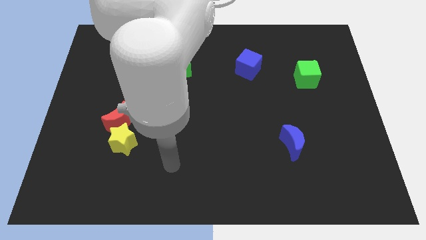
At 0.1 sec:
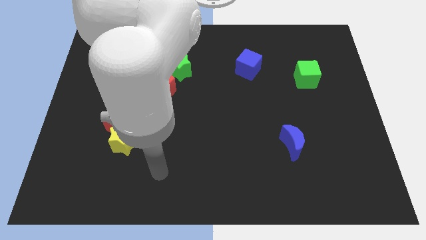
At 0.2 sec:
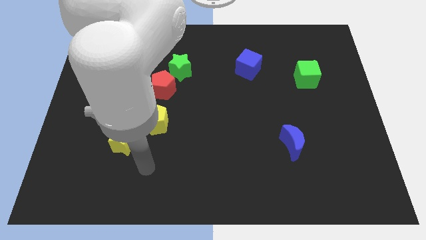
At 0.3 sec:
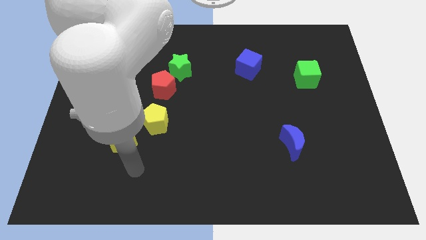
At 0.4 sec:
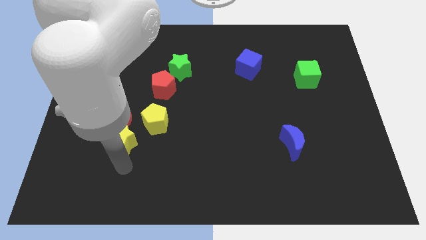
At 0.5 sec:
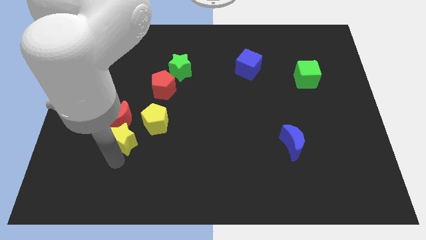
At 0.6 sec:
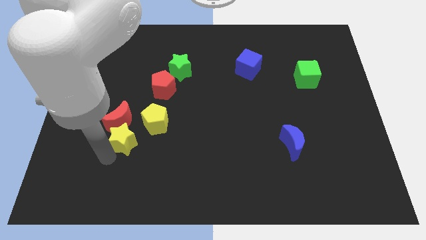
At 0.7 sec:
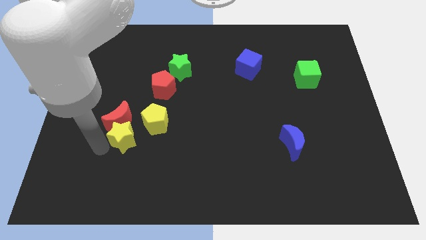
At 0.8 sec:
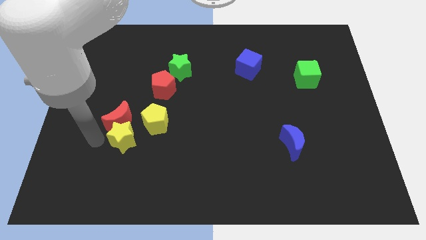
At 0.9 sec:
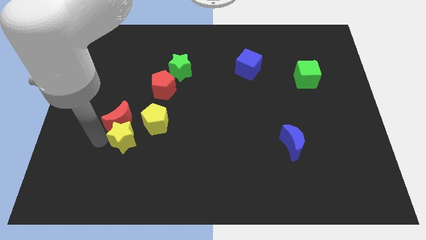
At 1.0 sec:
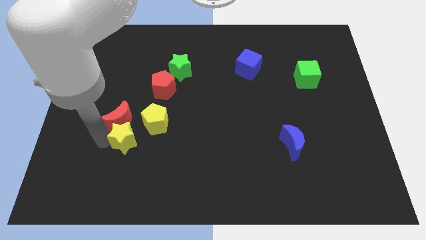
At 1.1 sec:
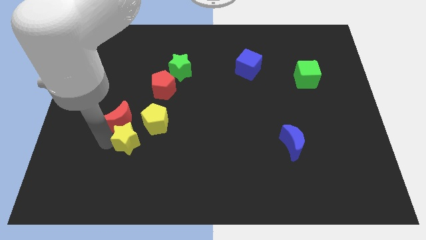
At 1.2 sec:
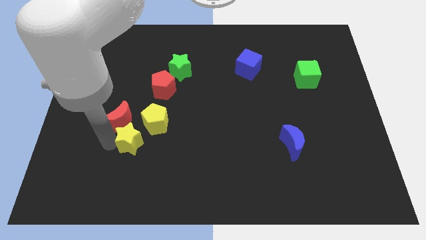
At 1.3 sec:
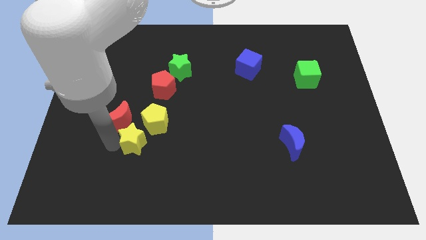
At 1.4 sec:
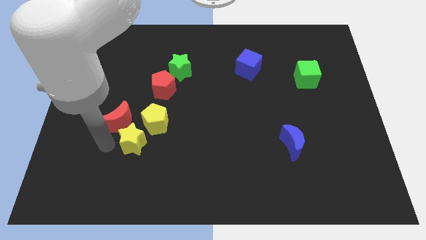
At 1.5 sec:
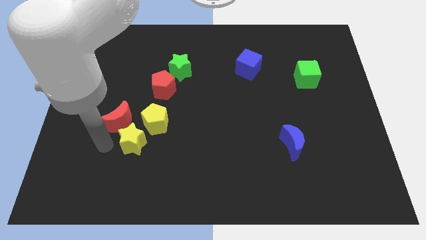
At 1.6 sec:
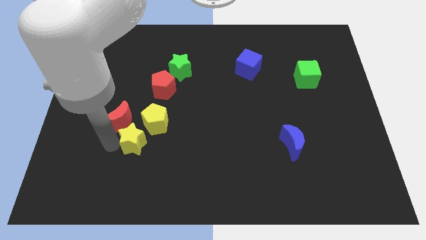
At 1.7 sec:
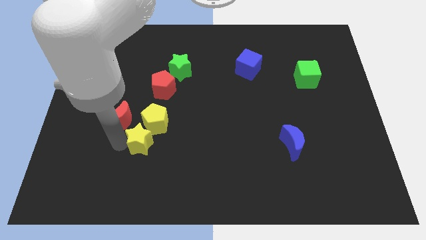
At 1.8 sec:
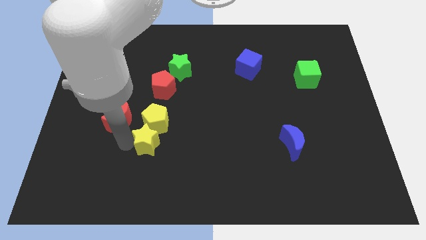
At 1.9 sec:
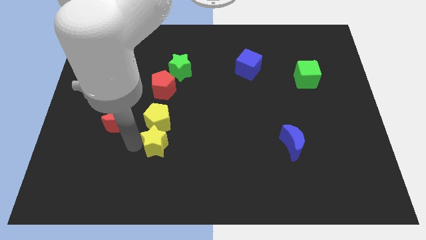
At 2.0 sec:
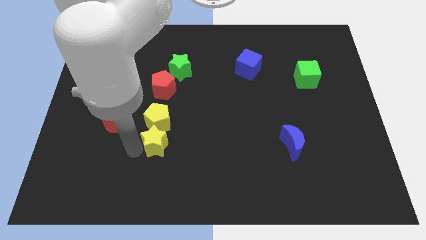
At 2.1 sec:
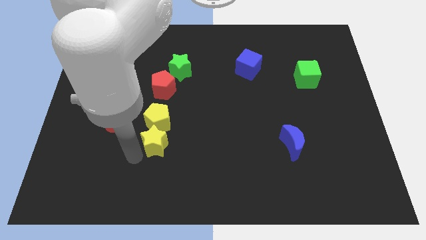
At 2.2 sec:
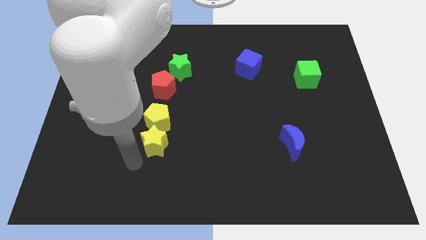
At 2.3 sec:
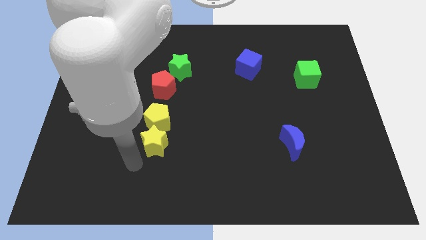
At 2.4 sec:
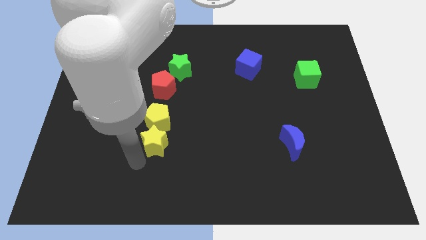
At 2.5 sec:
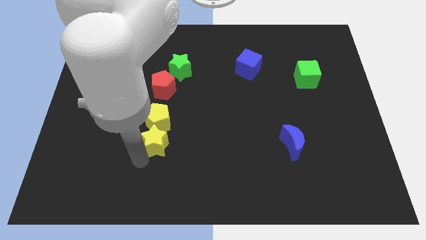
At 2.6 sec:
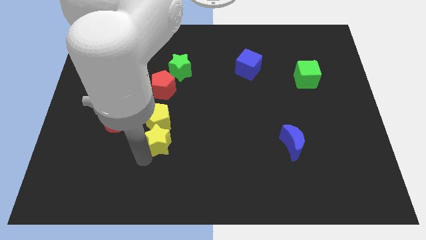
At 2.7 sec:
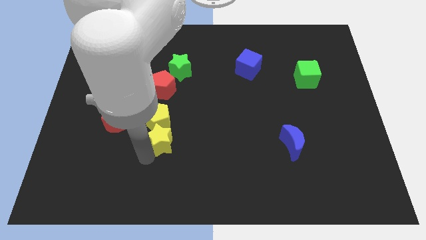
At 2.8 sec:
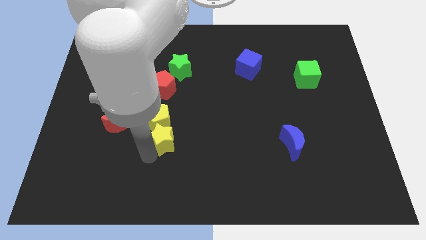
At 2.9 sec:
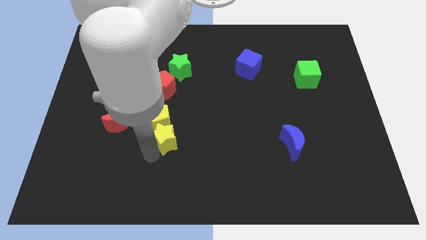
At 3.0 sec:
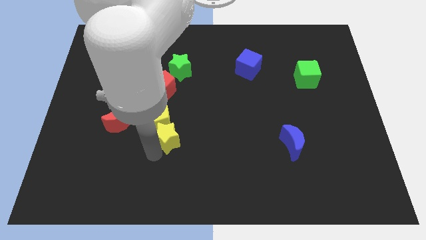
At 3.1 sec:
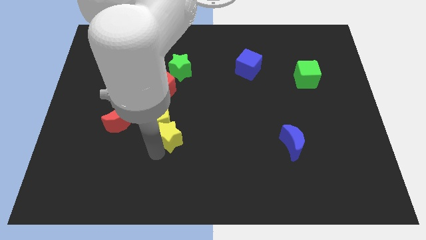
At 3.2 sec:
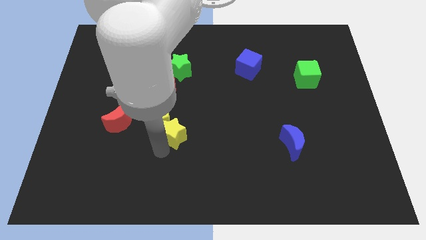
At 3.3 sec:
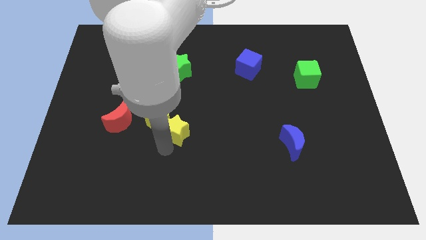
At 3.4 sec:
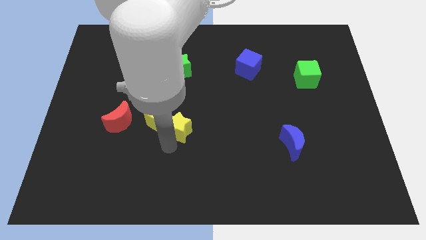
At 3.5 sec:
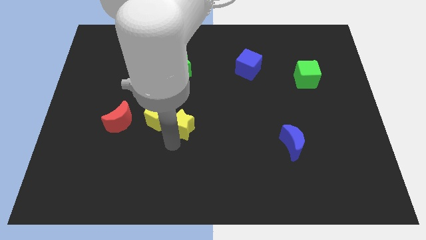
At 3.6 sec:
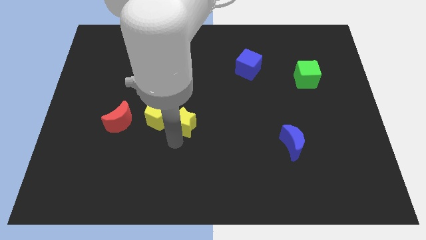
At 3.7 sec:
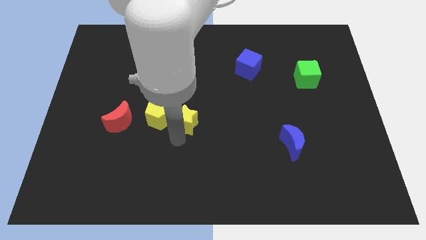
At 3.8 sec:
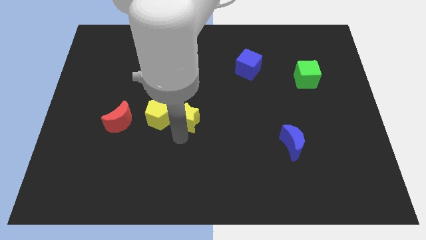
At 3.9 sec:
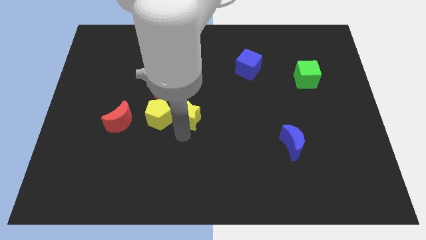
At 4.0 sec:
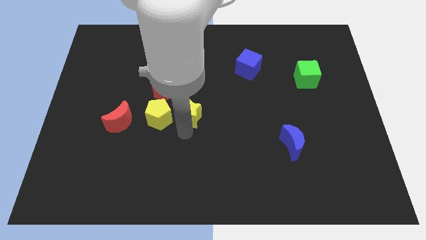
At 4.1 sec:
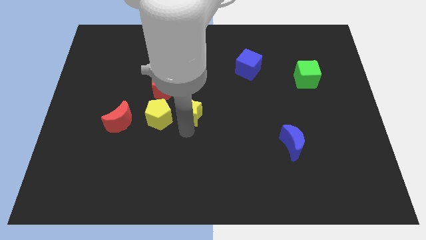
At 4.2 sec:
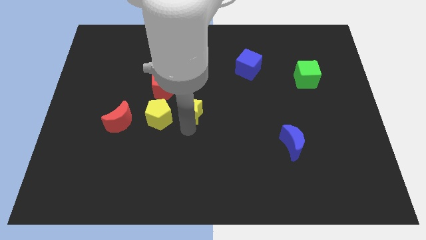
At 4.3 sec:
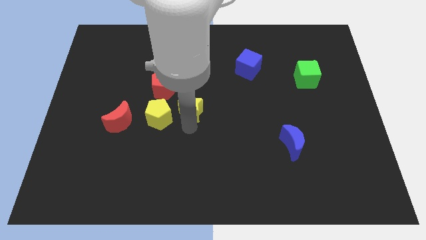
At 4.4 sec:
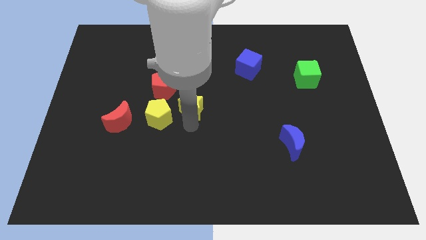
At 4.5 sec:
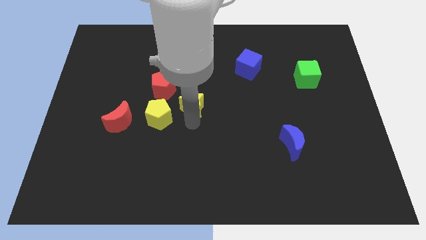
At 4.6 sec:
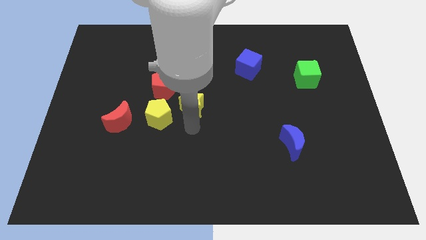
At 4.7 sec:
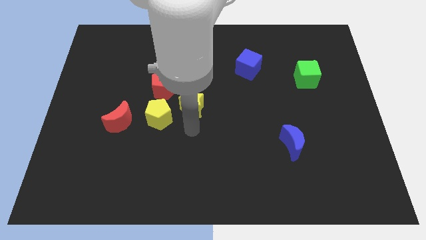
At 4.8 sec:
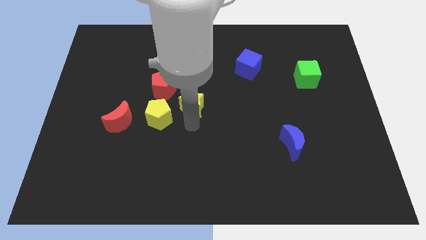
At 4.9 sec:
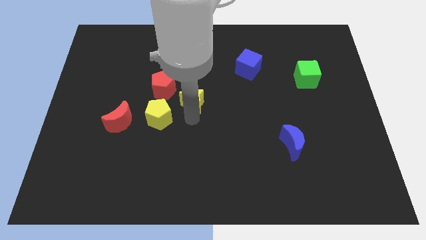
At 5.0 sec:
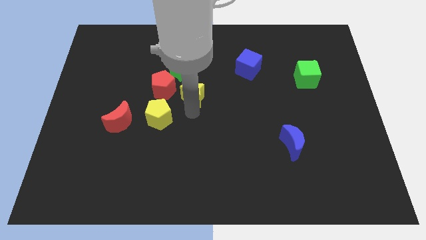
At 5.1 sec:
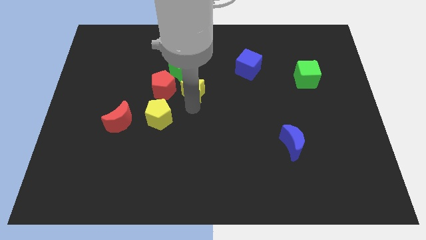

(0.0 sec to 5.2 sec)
slide the yellow star upwards and then to the right

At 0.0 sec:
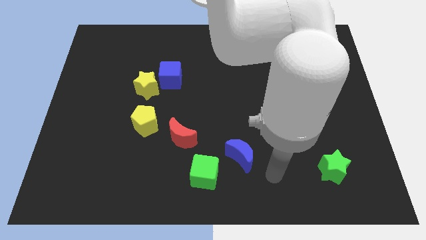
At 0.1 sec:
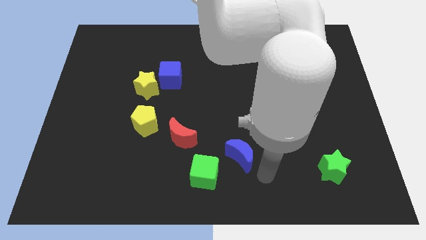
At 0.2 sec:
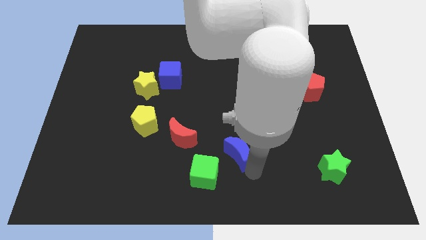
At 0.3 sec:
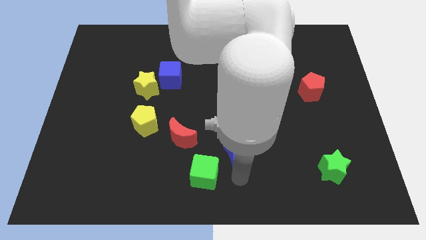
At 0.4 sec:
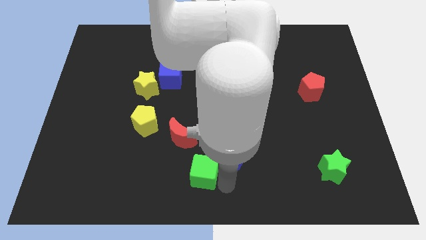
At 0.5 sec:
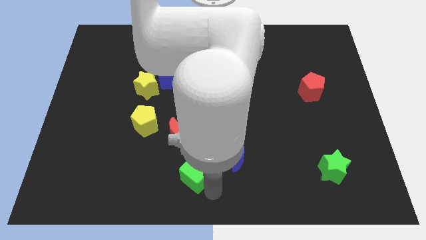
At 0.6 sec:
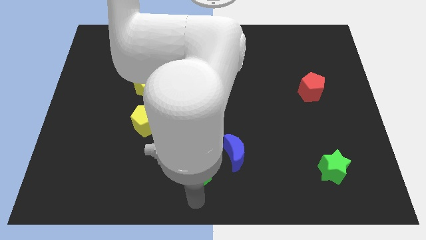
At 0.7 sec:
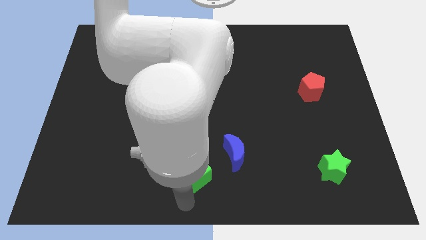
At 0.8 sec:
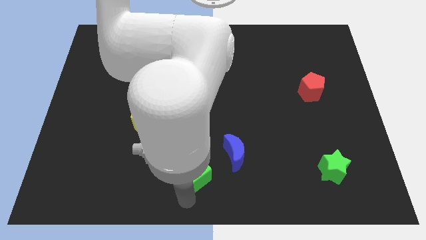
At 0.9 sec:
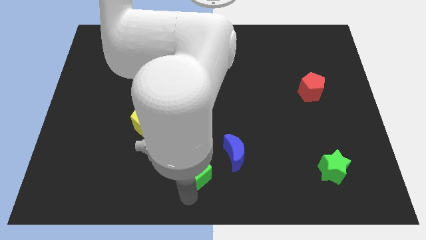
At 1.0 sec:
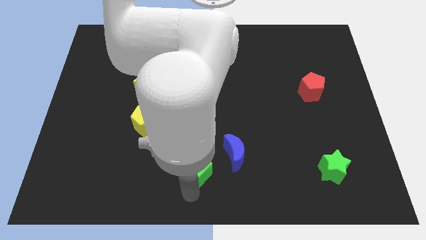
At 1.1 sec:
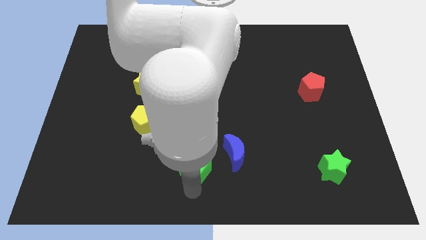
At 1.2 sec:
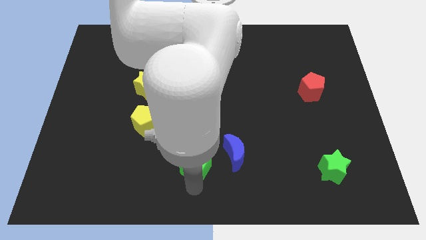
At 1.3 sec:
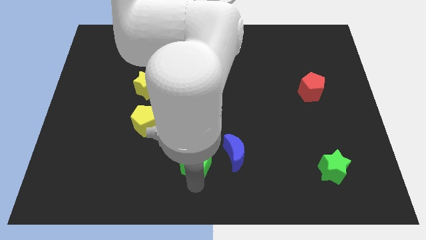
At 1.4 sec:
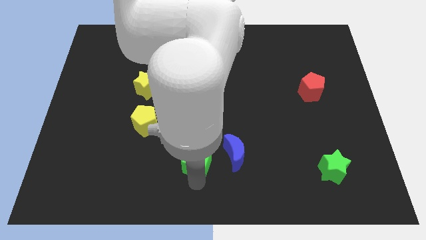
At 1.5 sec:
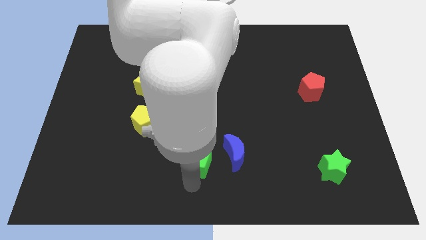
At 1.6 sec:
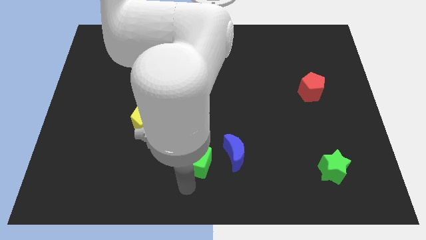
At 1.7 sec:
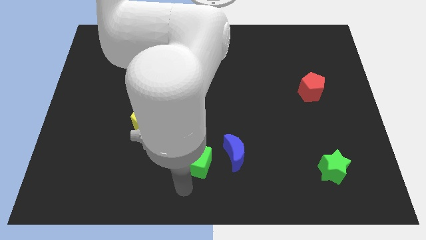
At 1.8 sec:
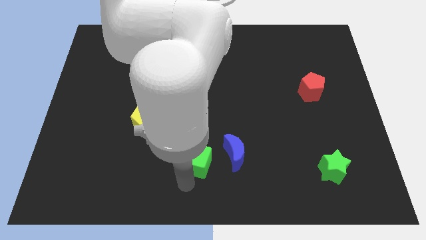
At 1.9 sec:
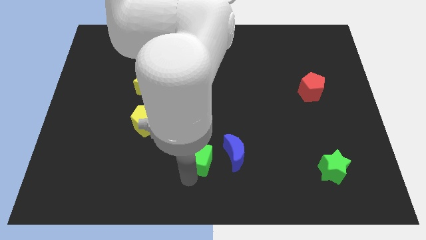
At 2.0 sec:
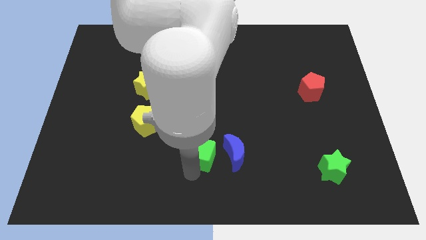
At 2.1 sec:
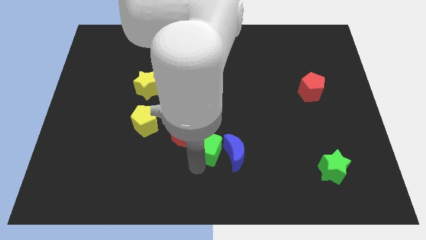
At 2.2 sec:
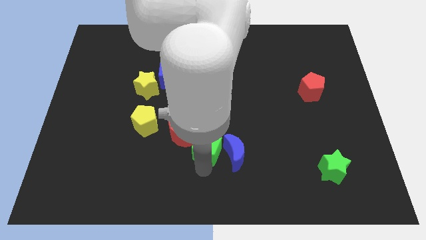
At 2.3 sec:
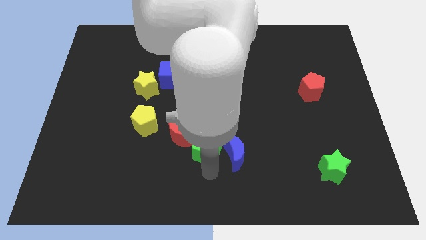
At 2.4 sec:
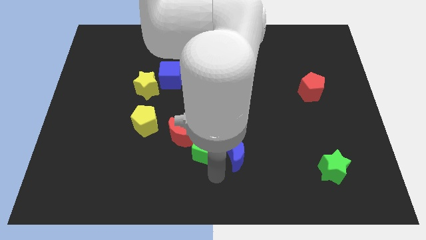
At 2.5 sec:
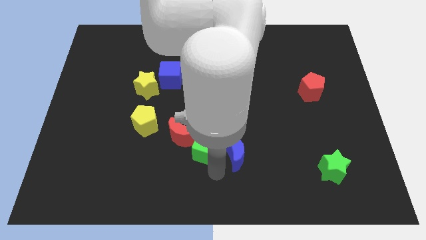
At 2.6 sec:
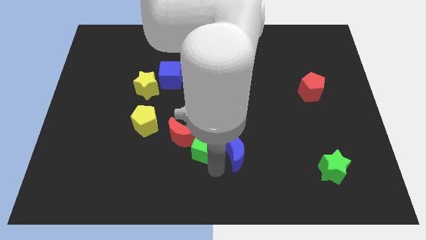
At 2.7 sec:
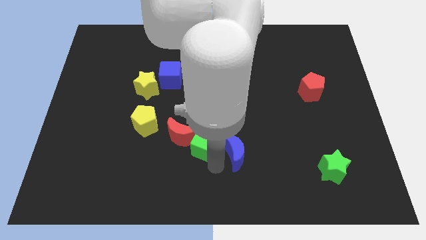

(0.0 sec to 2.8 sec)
move the green cube up a little bit
